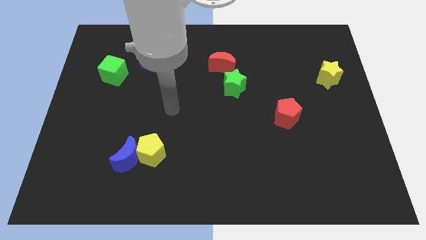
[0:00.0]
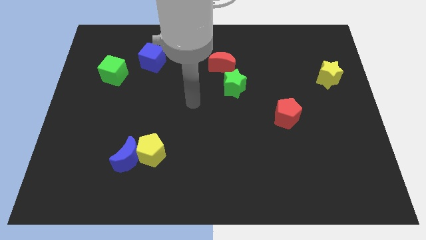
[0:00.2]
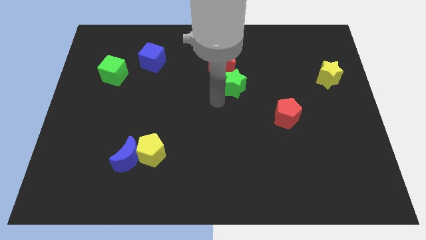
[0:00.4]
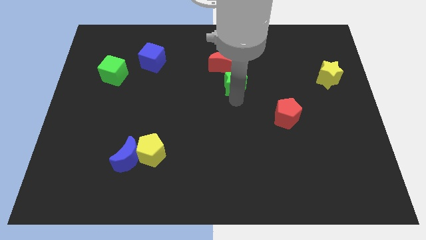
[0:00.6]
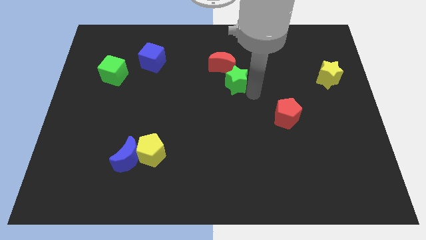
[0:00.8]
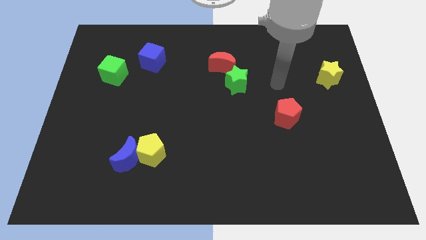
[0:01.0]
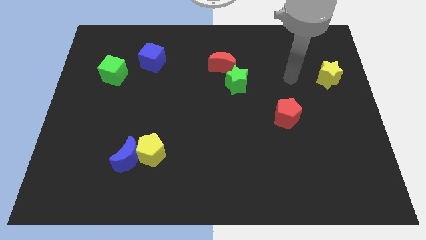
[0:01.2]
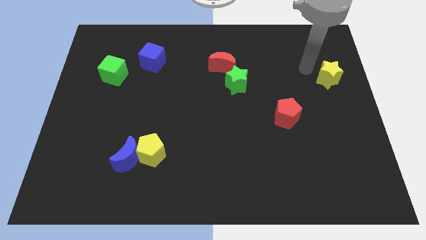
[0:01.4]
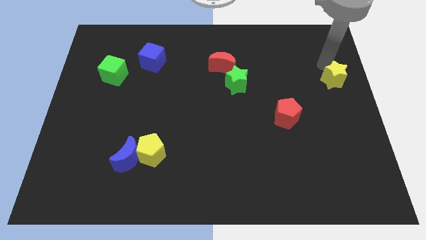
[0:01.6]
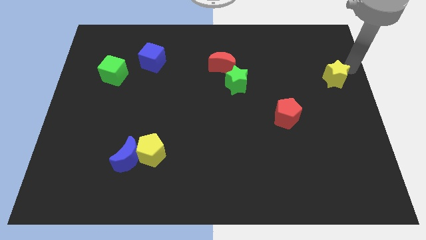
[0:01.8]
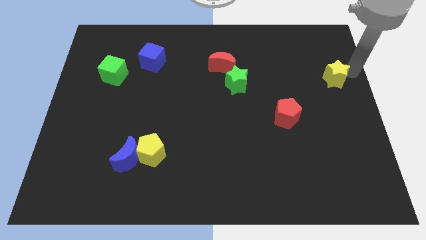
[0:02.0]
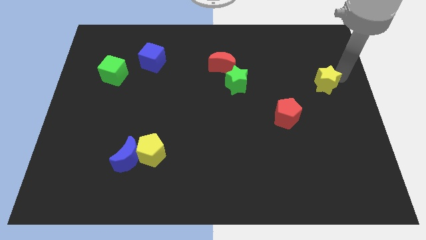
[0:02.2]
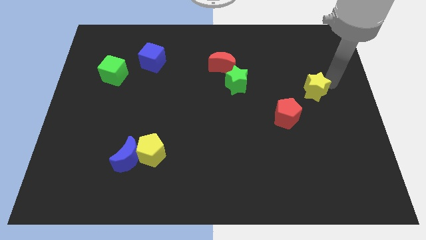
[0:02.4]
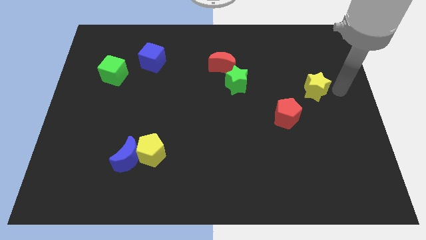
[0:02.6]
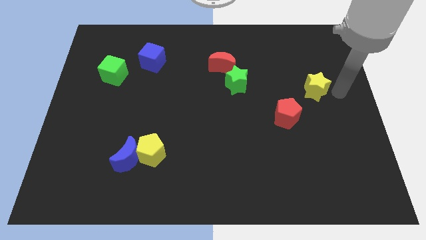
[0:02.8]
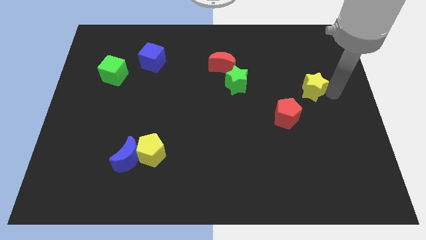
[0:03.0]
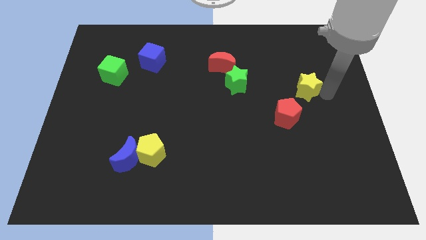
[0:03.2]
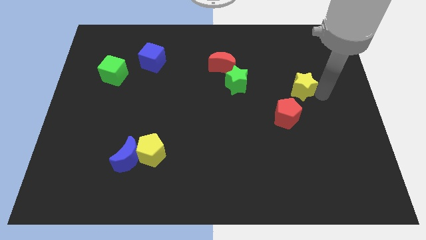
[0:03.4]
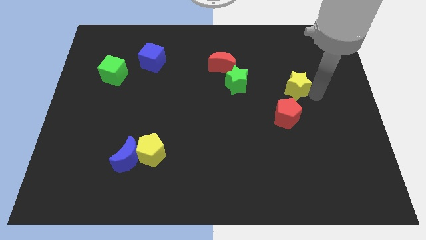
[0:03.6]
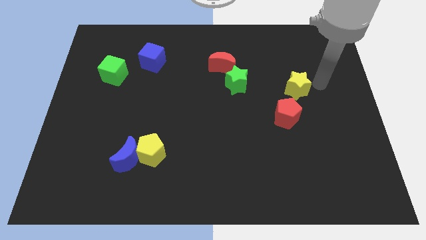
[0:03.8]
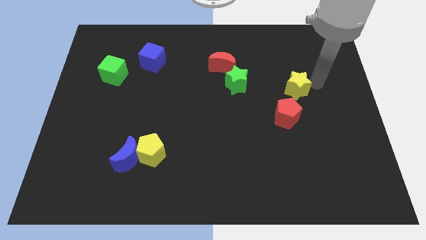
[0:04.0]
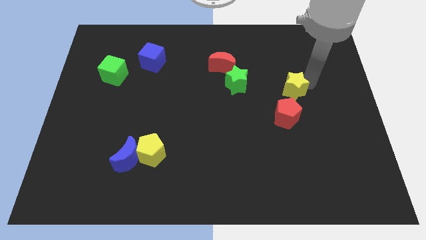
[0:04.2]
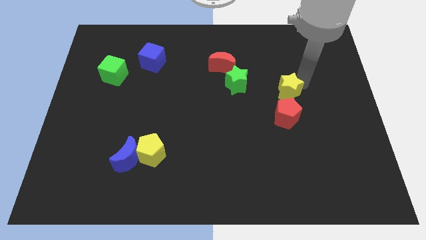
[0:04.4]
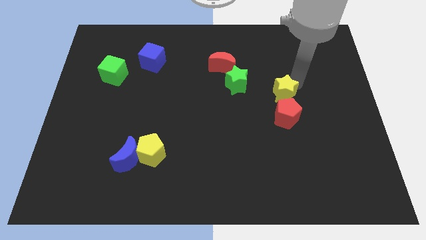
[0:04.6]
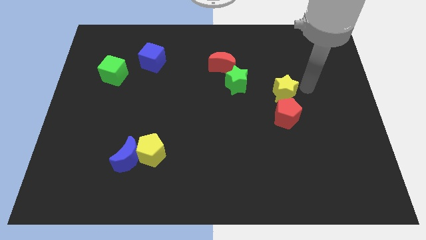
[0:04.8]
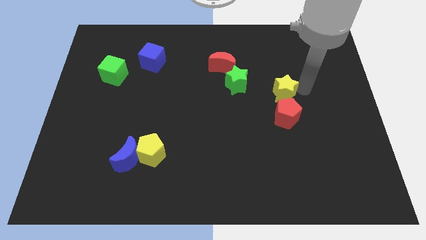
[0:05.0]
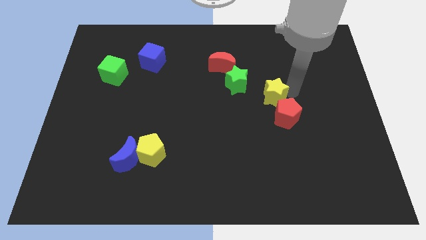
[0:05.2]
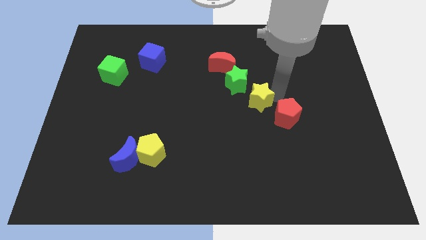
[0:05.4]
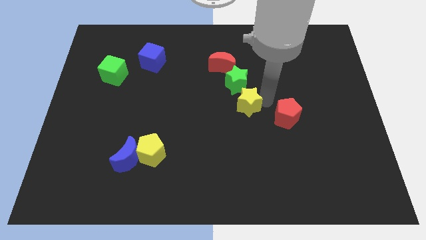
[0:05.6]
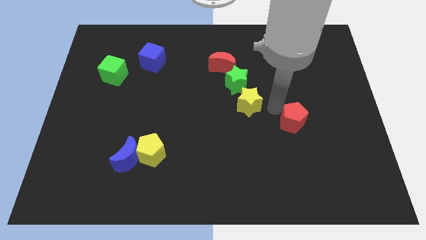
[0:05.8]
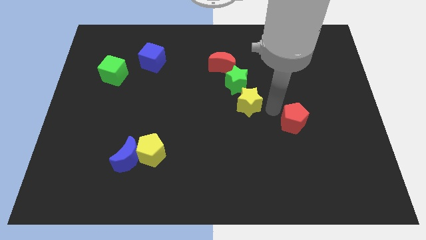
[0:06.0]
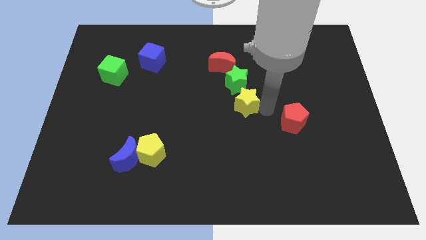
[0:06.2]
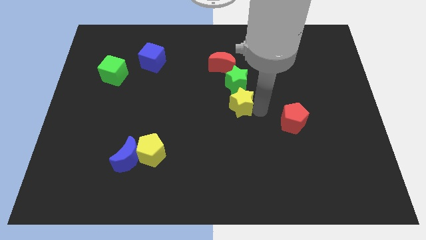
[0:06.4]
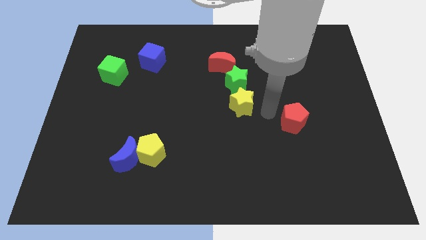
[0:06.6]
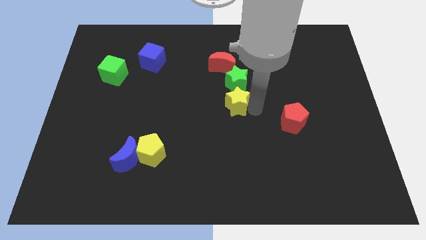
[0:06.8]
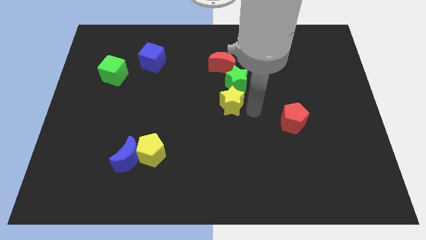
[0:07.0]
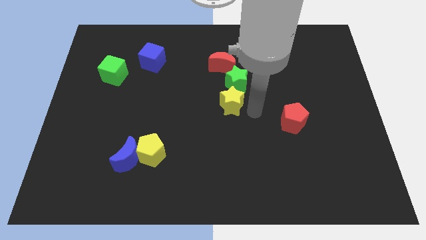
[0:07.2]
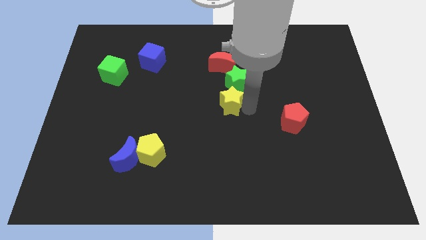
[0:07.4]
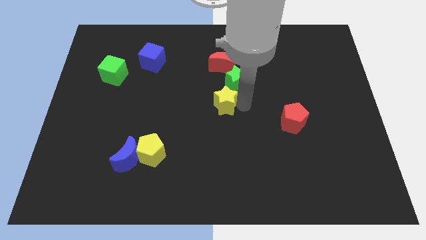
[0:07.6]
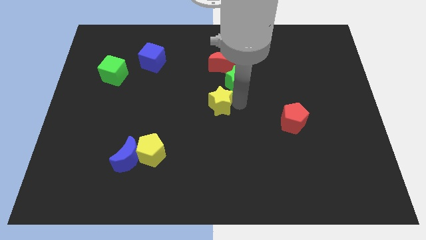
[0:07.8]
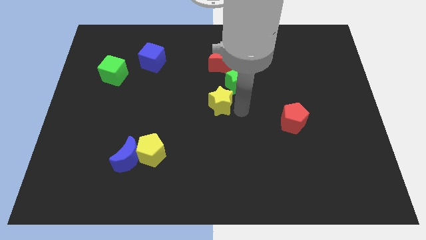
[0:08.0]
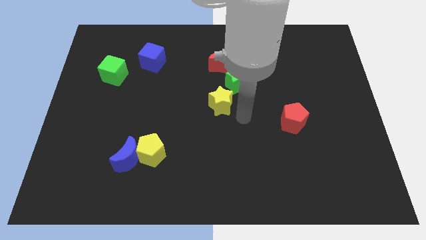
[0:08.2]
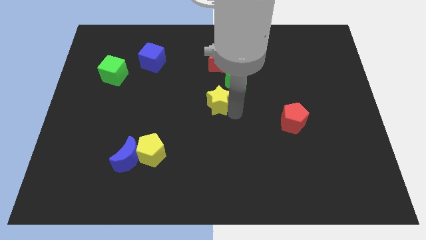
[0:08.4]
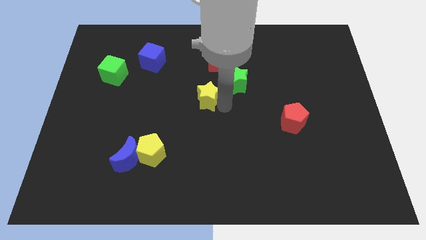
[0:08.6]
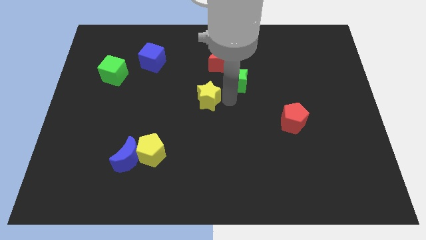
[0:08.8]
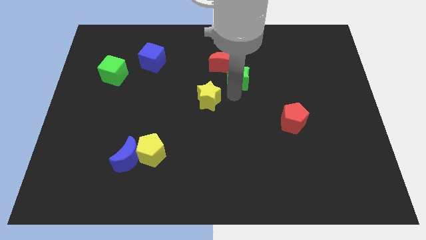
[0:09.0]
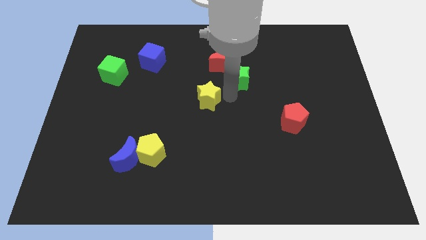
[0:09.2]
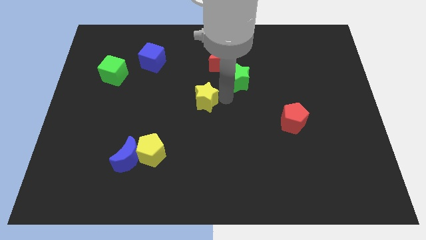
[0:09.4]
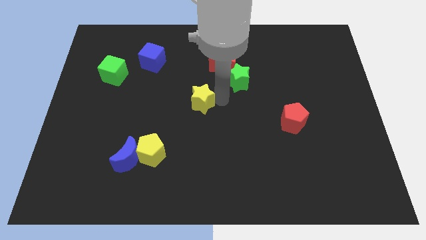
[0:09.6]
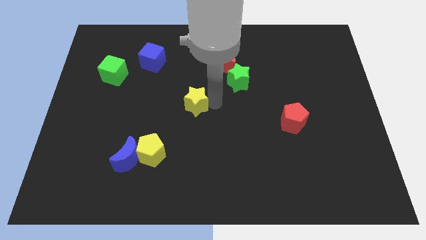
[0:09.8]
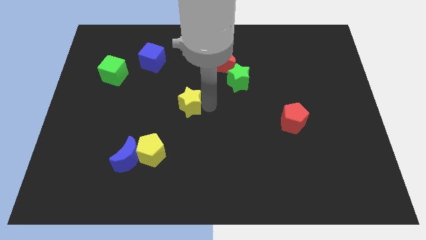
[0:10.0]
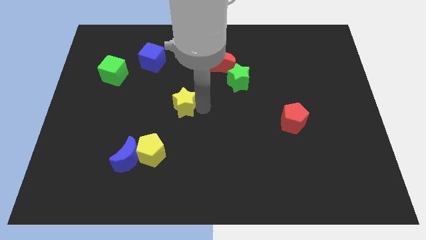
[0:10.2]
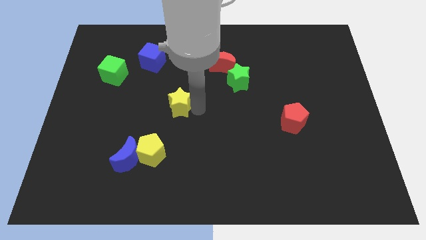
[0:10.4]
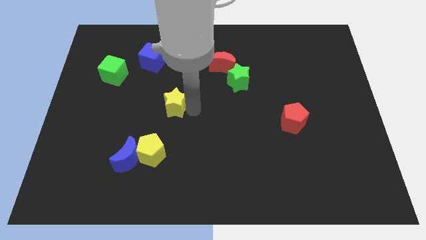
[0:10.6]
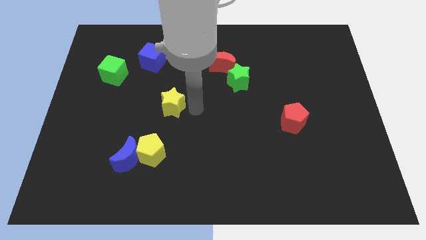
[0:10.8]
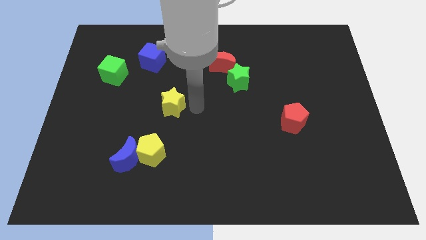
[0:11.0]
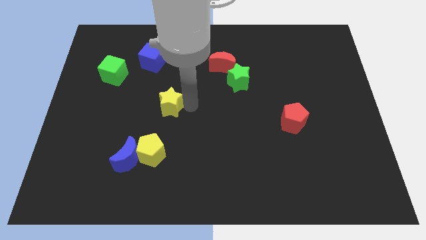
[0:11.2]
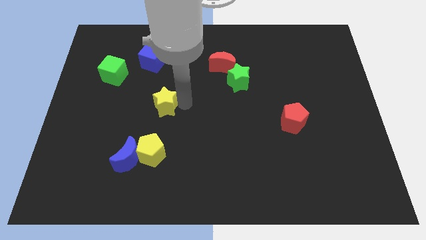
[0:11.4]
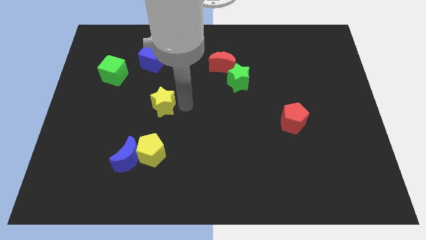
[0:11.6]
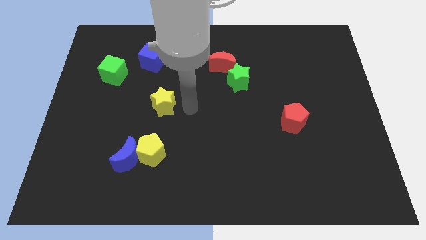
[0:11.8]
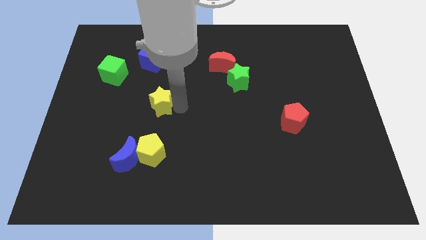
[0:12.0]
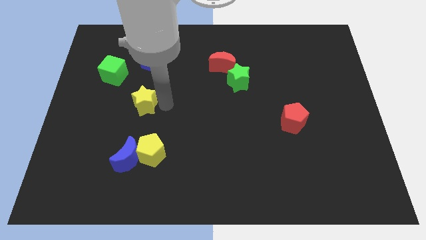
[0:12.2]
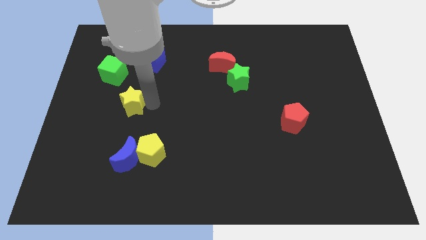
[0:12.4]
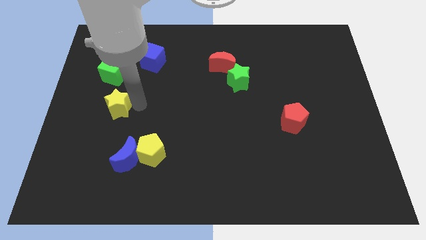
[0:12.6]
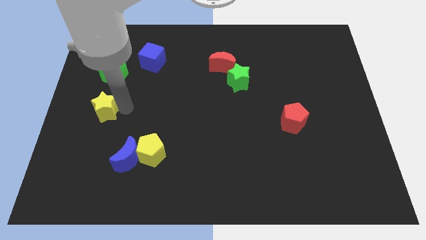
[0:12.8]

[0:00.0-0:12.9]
move the yellow star to the center left

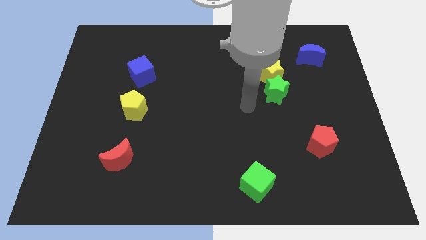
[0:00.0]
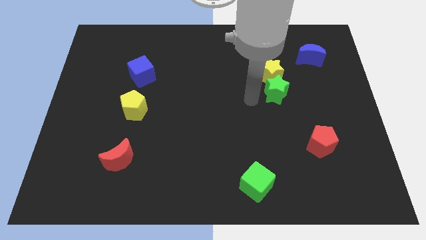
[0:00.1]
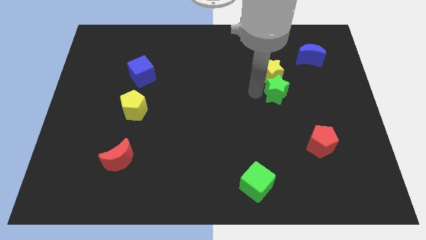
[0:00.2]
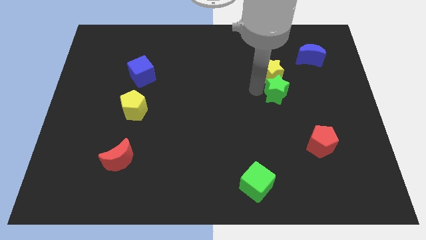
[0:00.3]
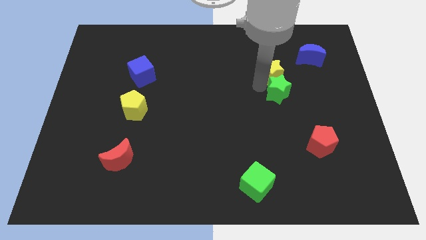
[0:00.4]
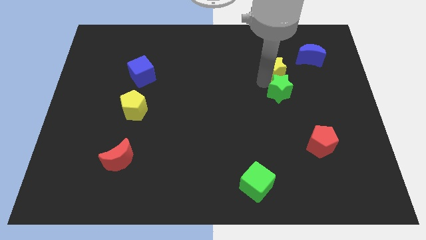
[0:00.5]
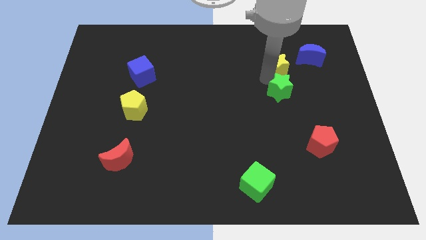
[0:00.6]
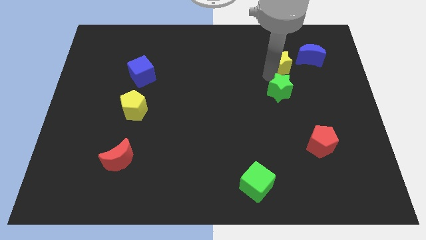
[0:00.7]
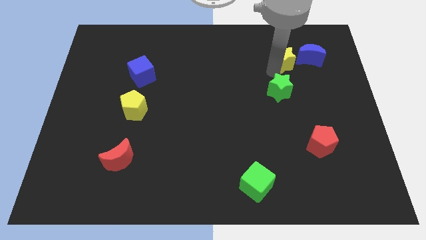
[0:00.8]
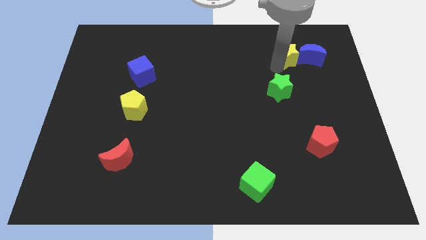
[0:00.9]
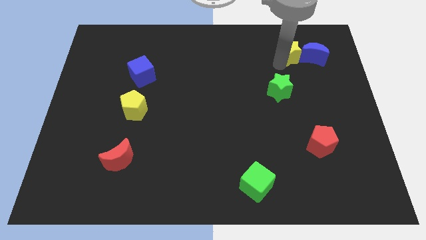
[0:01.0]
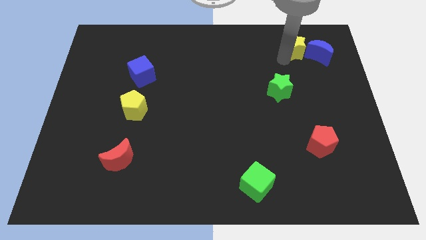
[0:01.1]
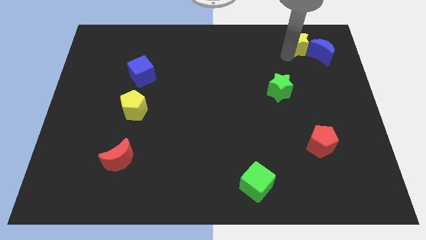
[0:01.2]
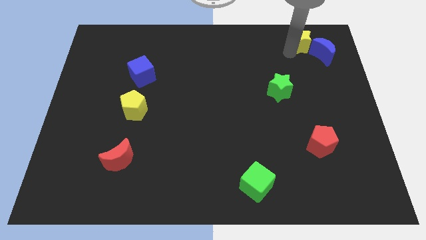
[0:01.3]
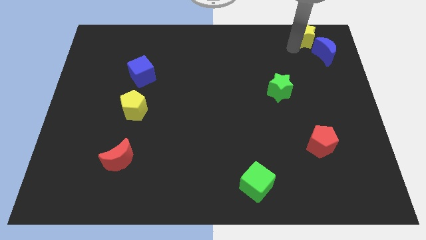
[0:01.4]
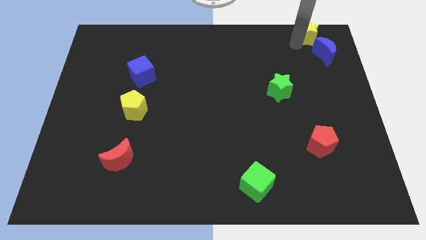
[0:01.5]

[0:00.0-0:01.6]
put the yellow star to the upper right corner
